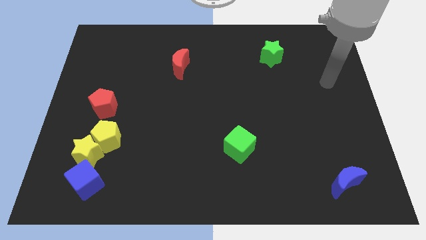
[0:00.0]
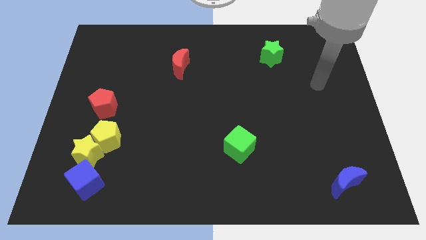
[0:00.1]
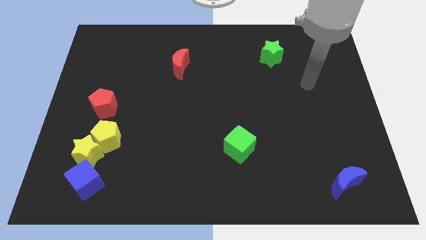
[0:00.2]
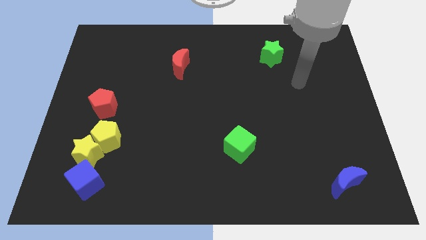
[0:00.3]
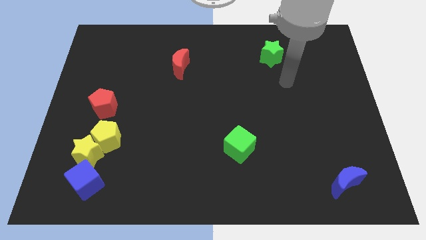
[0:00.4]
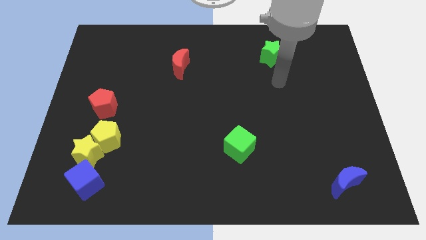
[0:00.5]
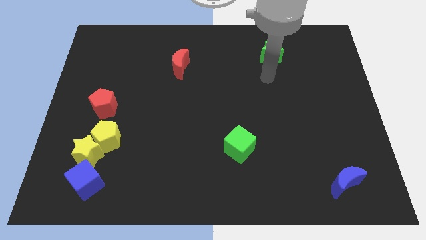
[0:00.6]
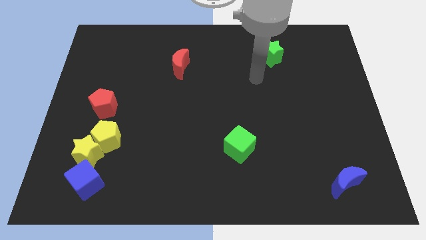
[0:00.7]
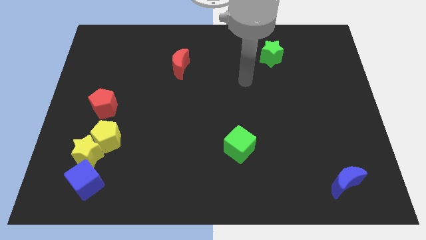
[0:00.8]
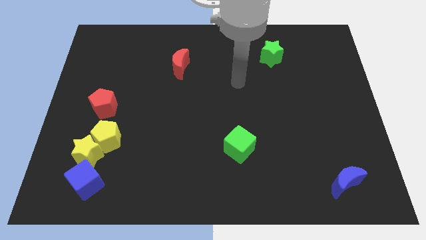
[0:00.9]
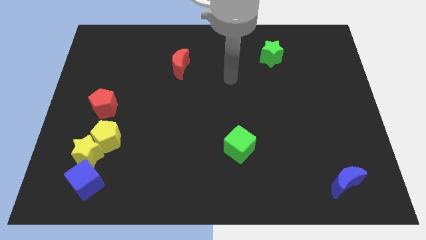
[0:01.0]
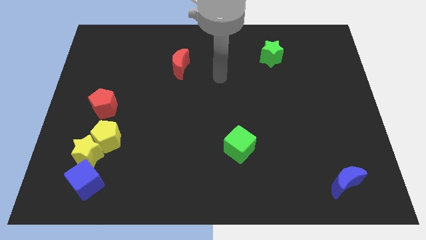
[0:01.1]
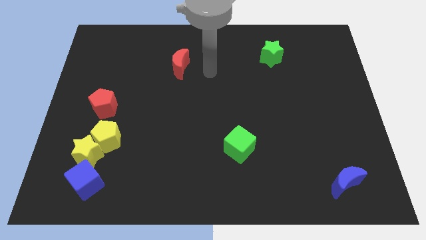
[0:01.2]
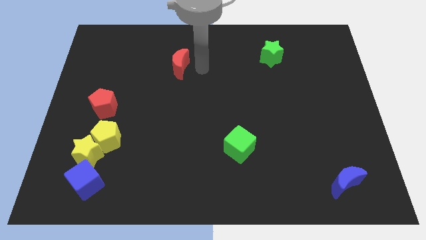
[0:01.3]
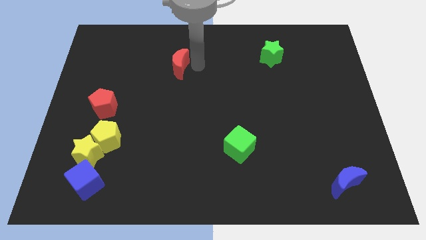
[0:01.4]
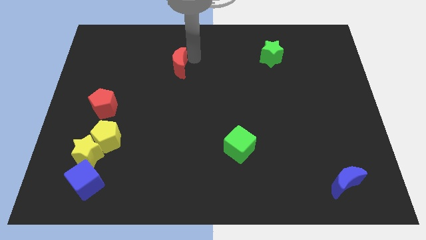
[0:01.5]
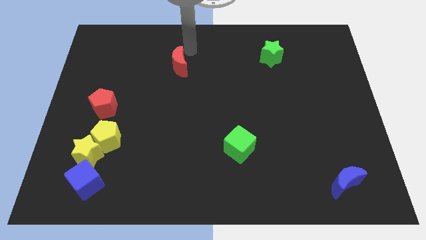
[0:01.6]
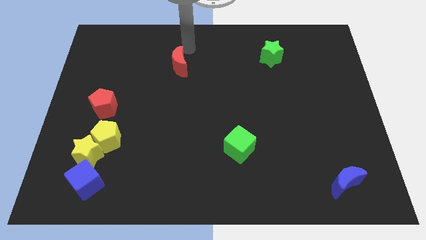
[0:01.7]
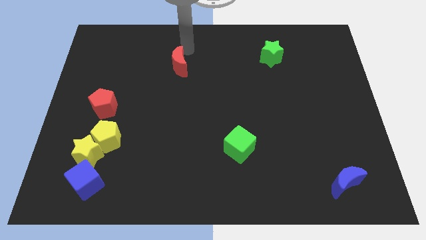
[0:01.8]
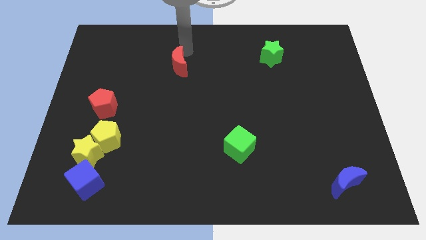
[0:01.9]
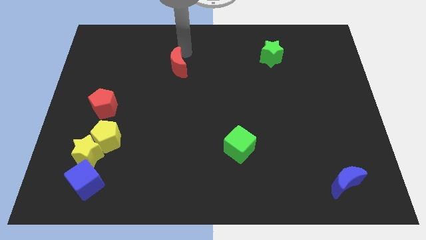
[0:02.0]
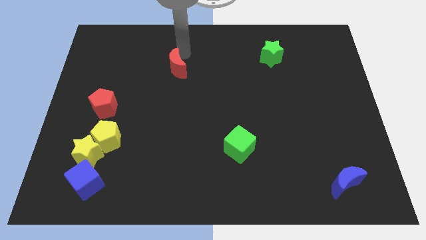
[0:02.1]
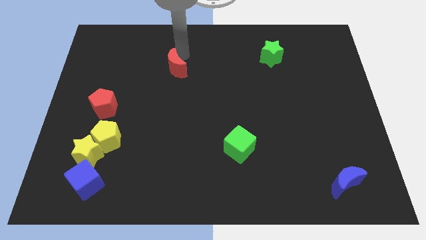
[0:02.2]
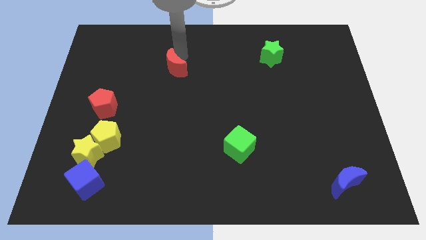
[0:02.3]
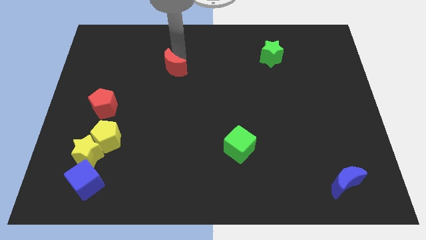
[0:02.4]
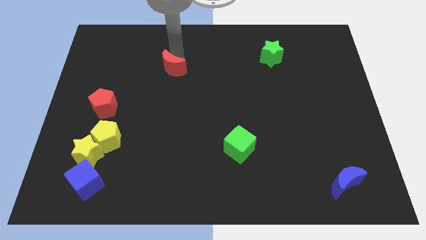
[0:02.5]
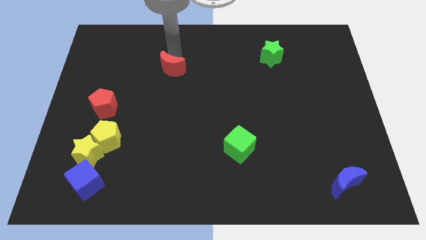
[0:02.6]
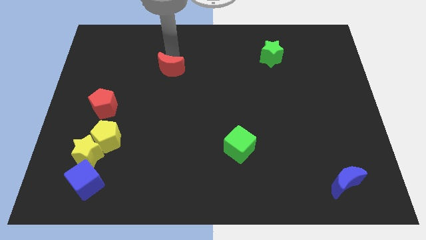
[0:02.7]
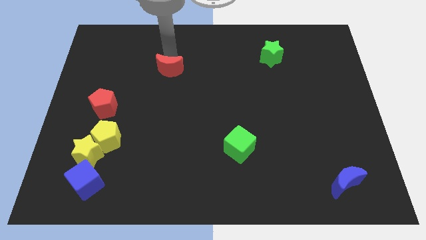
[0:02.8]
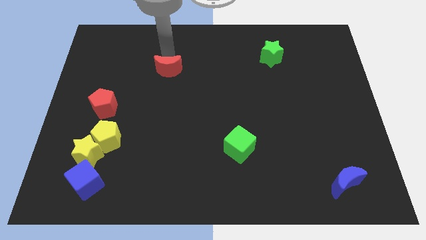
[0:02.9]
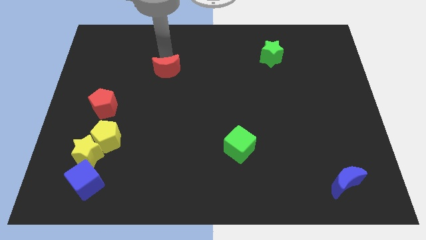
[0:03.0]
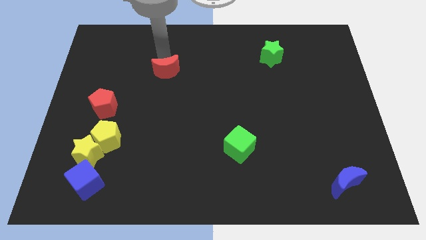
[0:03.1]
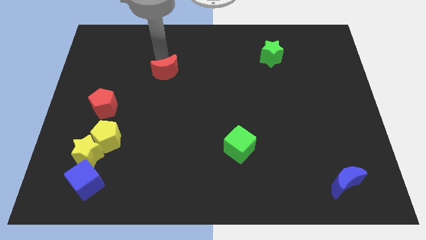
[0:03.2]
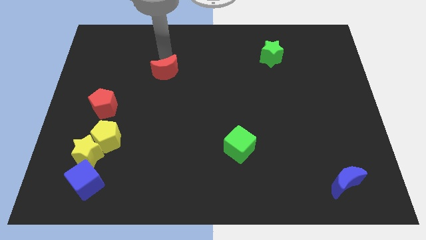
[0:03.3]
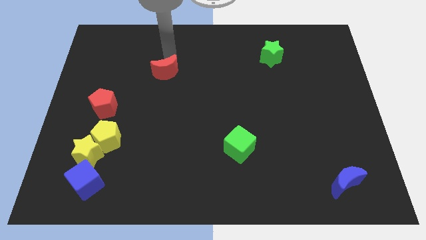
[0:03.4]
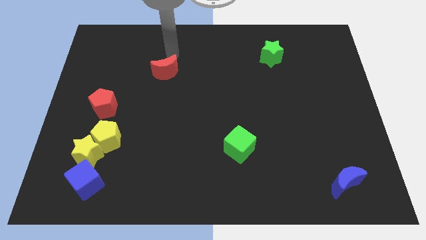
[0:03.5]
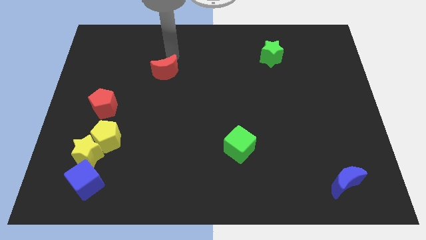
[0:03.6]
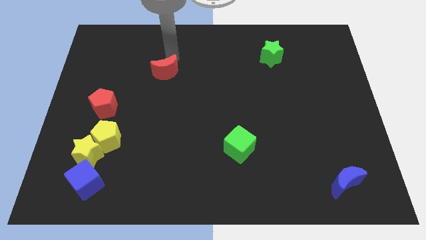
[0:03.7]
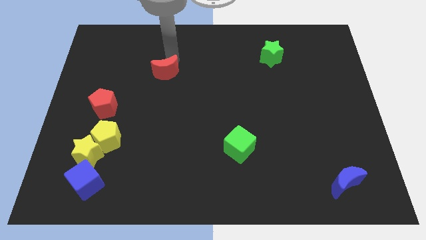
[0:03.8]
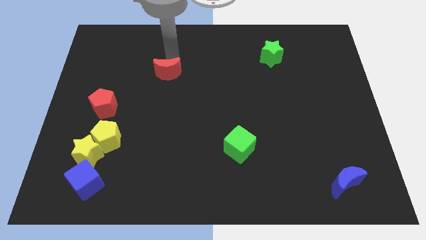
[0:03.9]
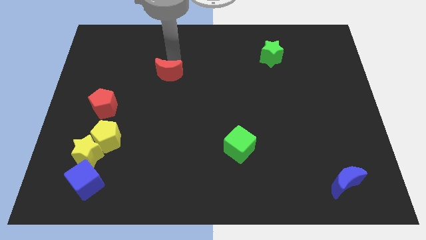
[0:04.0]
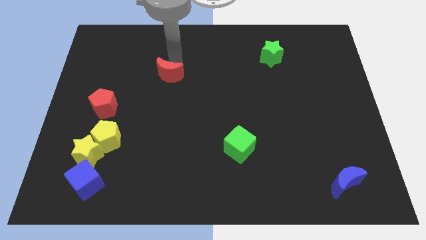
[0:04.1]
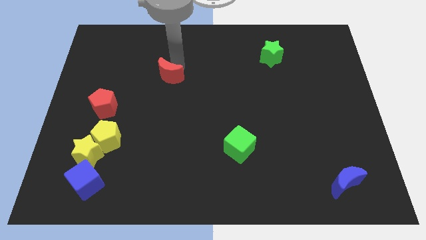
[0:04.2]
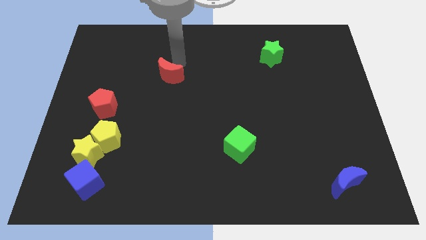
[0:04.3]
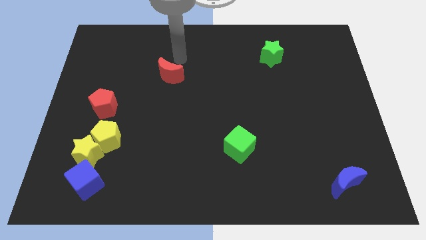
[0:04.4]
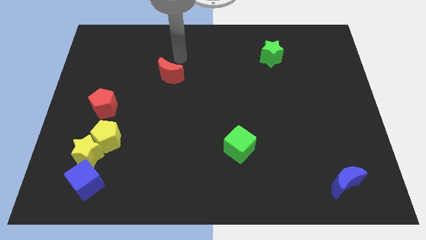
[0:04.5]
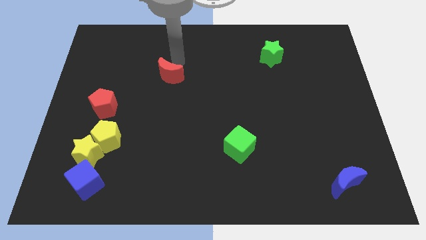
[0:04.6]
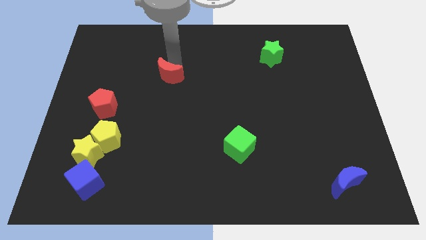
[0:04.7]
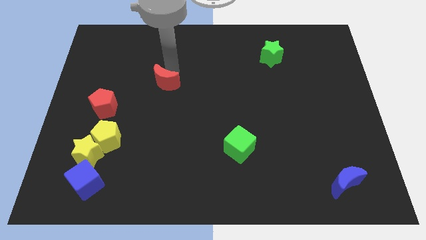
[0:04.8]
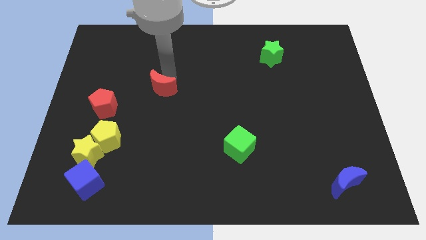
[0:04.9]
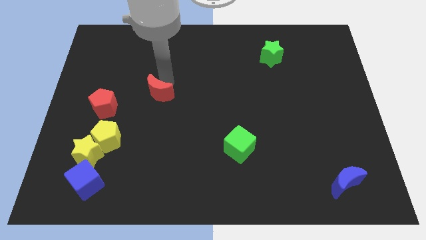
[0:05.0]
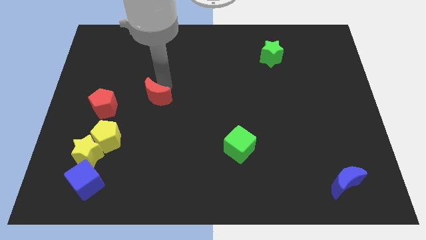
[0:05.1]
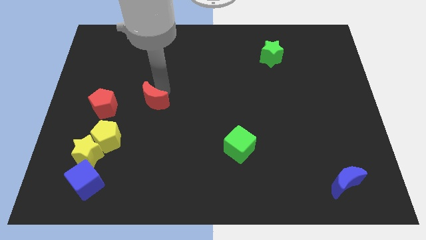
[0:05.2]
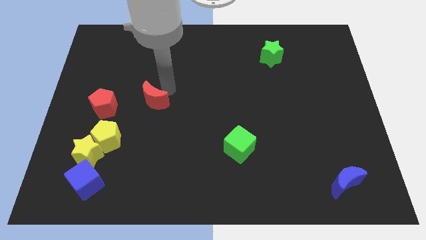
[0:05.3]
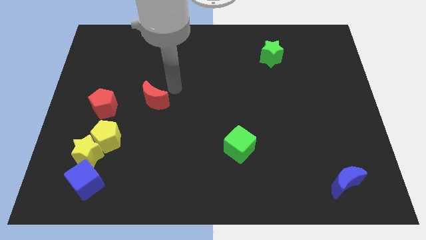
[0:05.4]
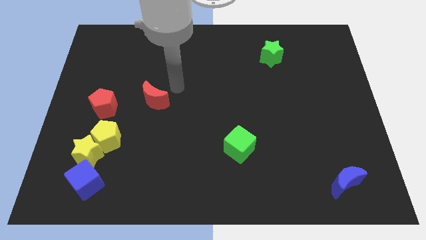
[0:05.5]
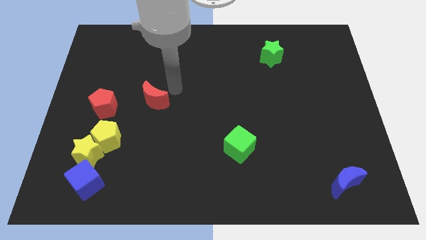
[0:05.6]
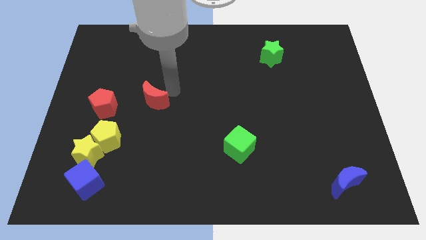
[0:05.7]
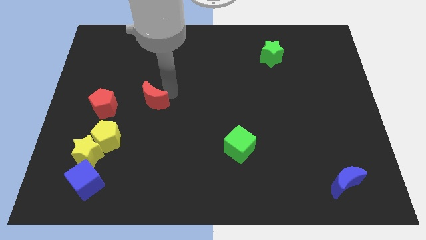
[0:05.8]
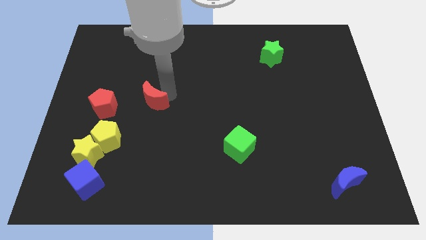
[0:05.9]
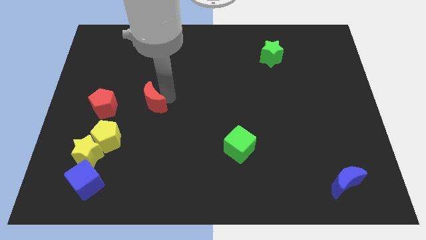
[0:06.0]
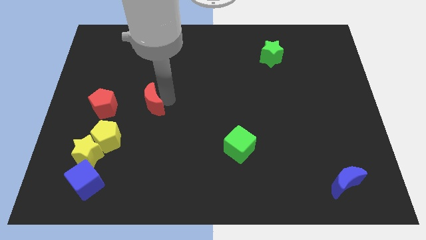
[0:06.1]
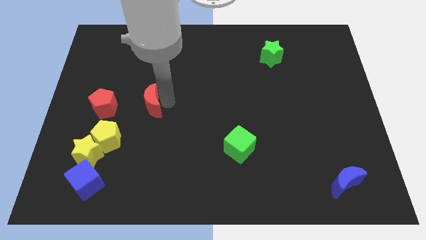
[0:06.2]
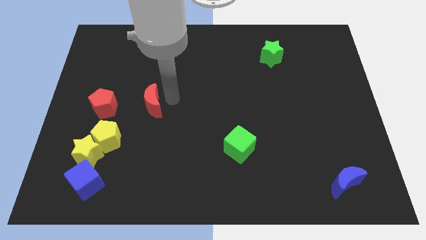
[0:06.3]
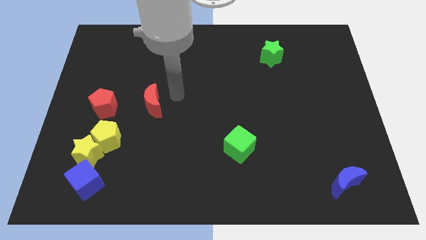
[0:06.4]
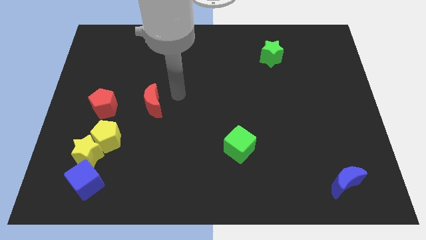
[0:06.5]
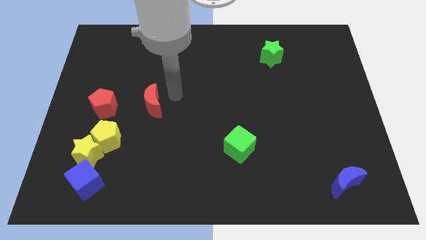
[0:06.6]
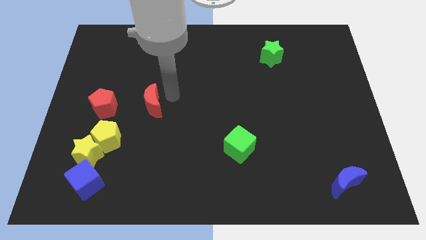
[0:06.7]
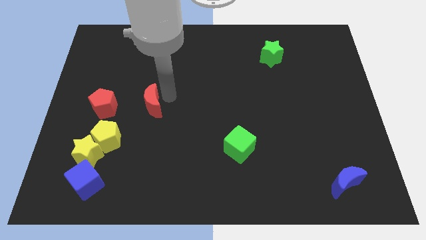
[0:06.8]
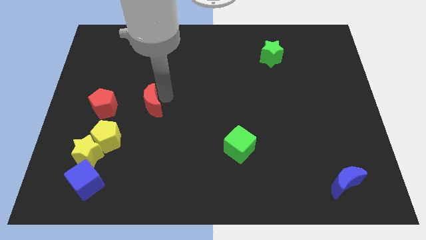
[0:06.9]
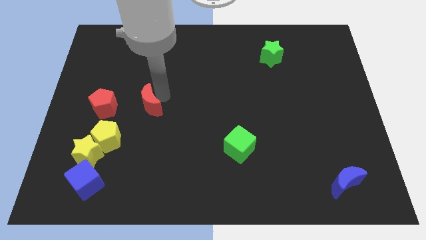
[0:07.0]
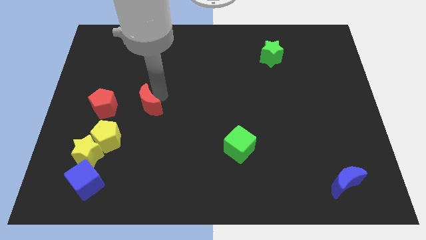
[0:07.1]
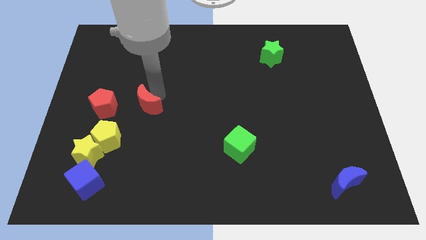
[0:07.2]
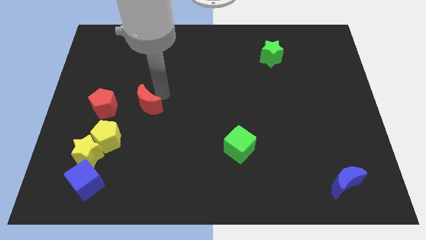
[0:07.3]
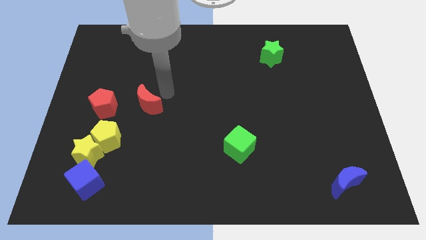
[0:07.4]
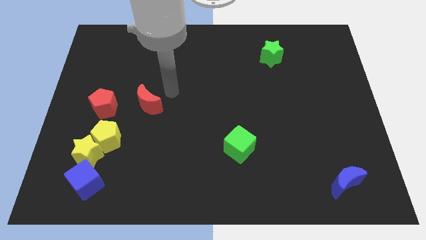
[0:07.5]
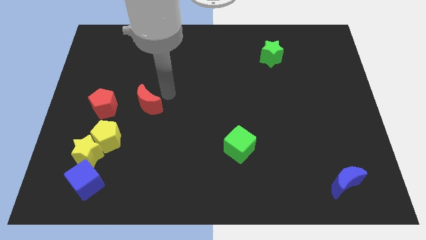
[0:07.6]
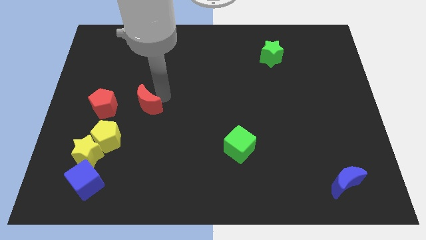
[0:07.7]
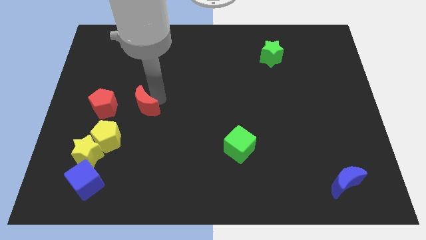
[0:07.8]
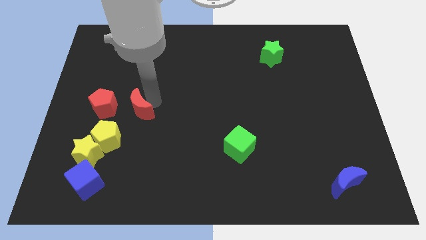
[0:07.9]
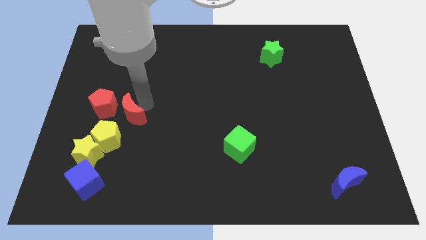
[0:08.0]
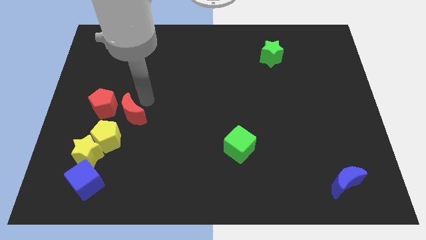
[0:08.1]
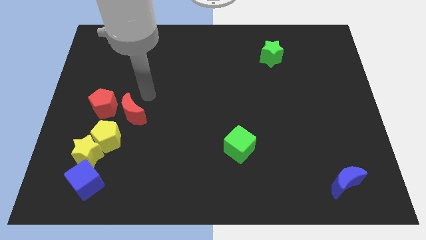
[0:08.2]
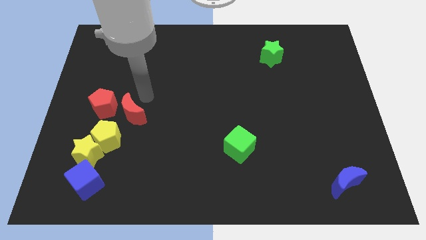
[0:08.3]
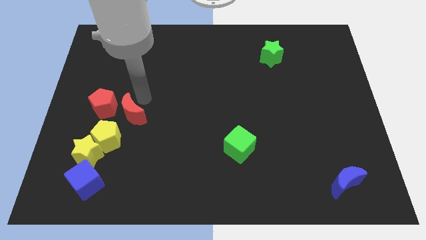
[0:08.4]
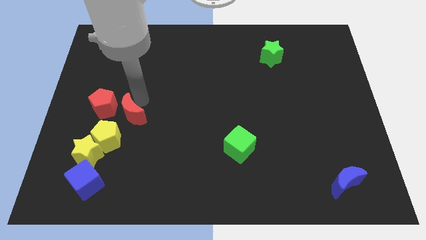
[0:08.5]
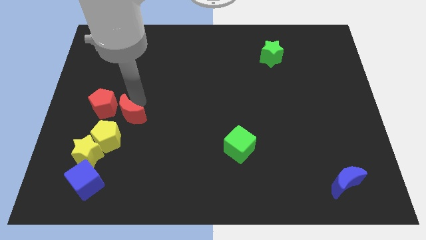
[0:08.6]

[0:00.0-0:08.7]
slide the red moon diagonally up and to the right of the yellow star
